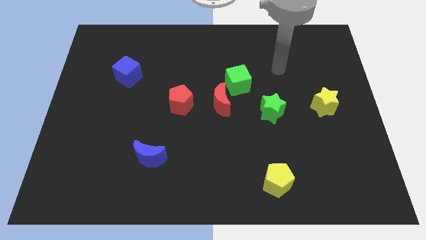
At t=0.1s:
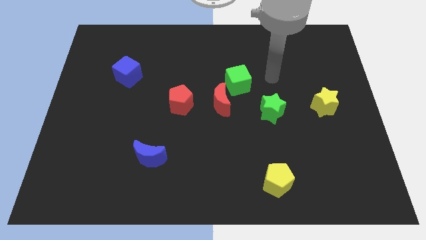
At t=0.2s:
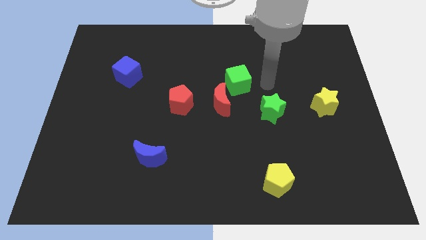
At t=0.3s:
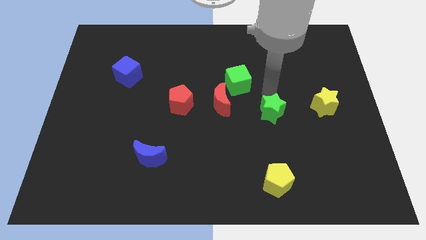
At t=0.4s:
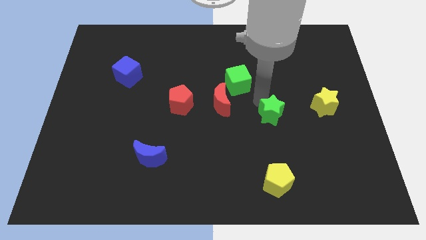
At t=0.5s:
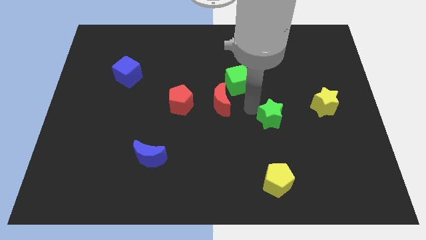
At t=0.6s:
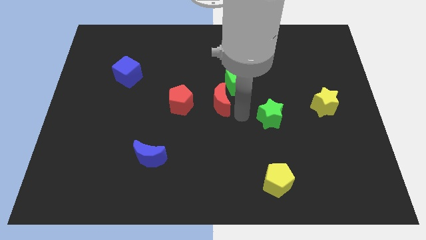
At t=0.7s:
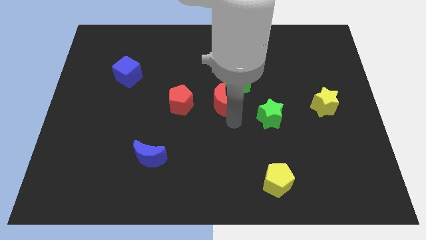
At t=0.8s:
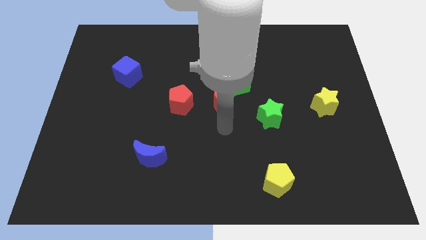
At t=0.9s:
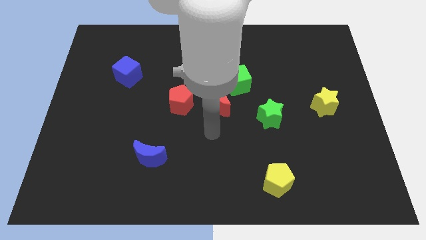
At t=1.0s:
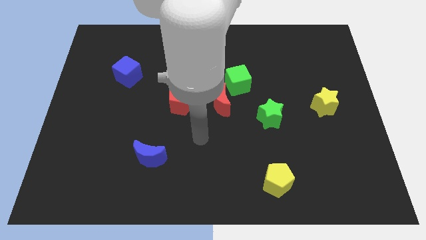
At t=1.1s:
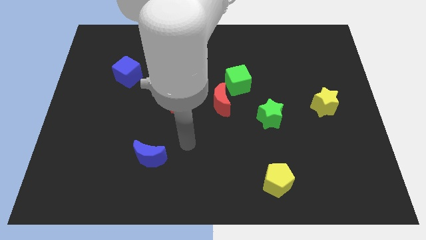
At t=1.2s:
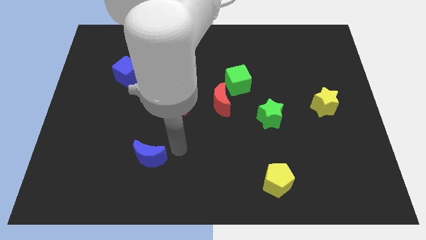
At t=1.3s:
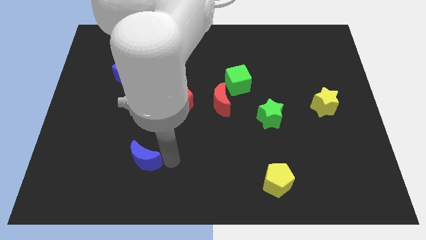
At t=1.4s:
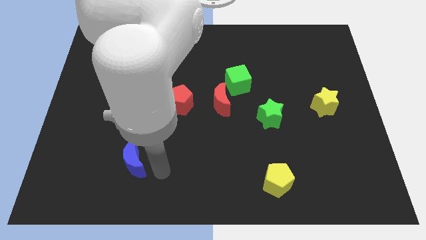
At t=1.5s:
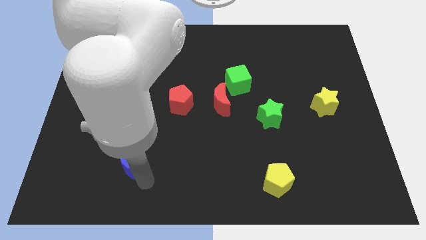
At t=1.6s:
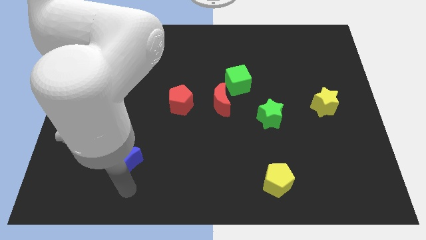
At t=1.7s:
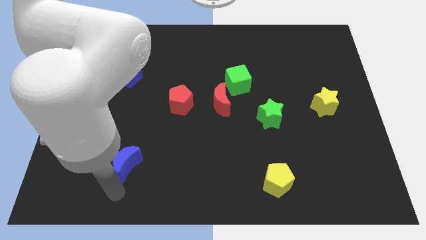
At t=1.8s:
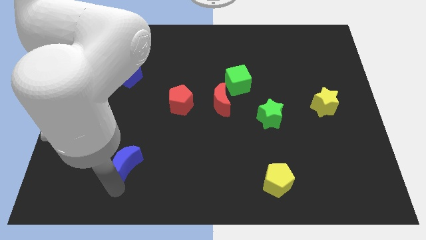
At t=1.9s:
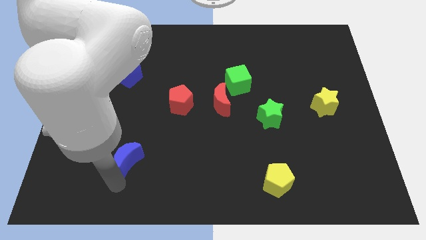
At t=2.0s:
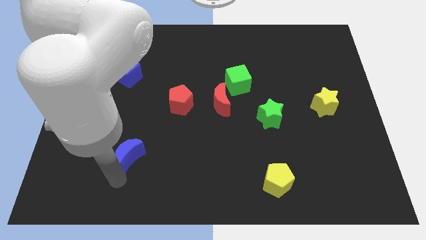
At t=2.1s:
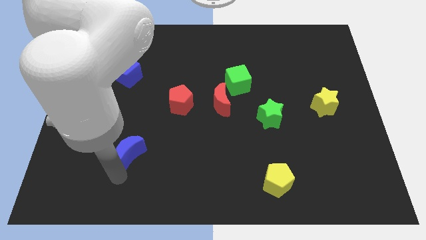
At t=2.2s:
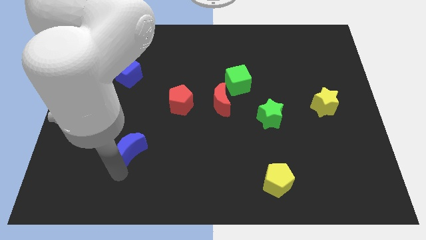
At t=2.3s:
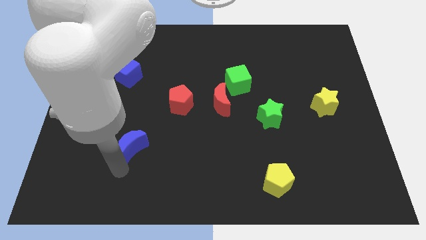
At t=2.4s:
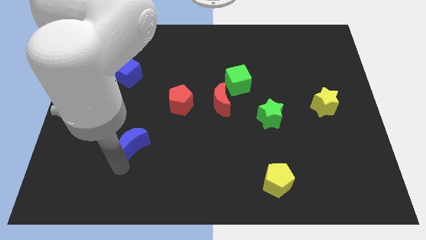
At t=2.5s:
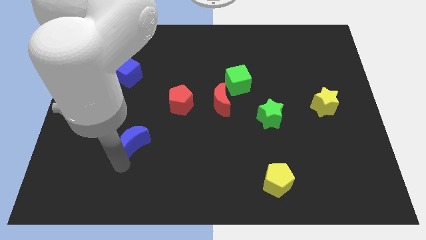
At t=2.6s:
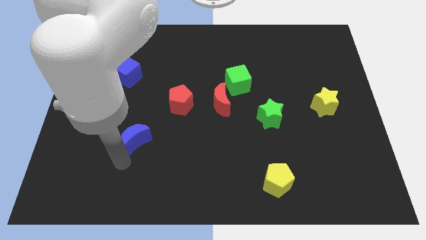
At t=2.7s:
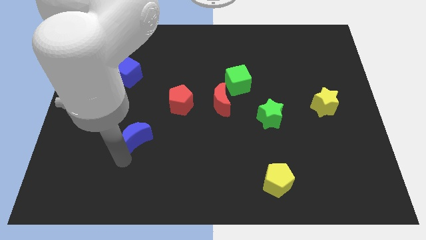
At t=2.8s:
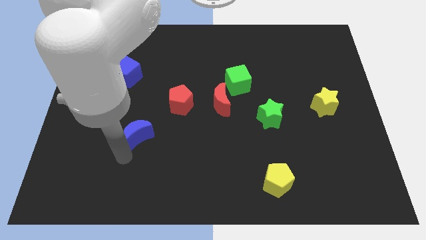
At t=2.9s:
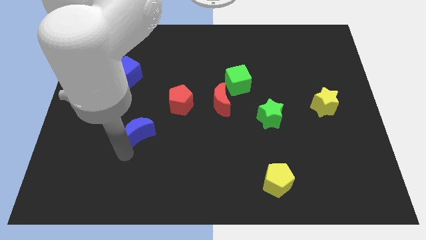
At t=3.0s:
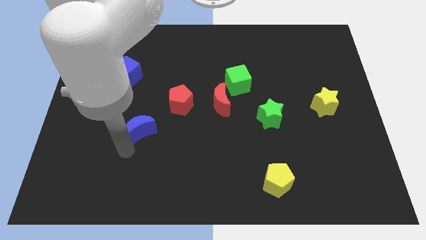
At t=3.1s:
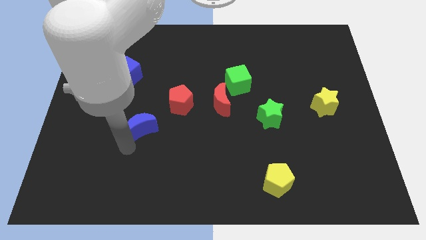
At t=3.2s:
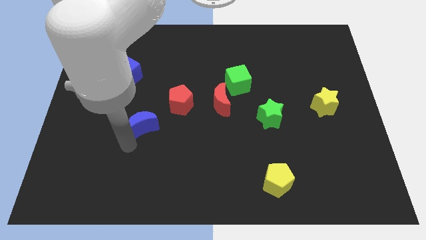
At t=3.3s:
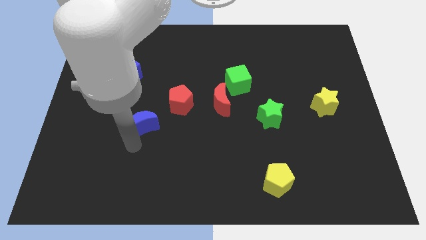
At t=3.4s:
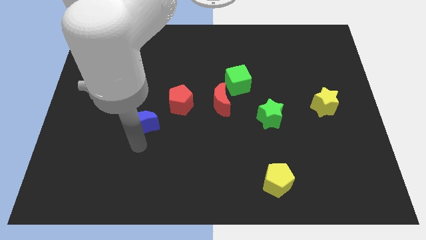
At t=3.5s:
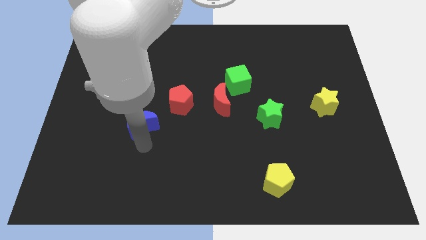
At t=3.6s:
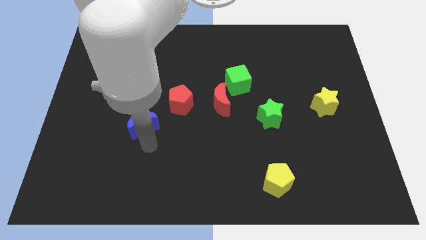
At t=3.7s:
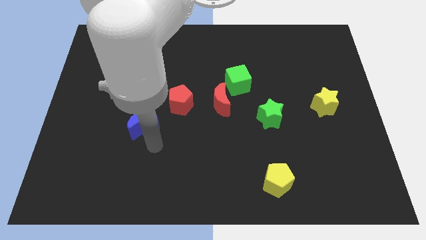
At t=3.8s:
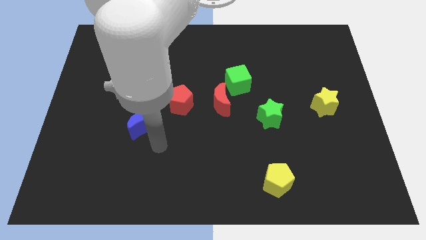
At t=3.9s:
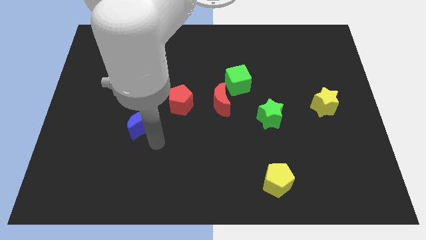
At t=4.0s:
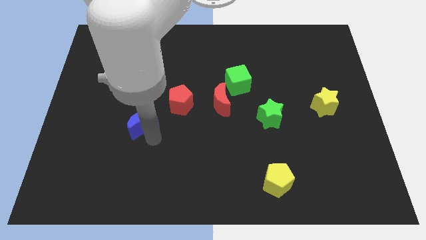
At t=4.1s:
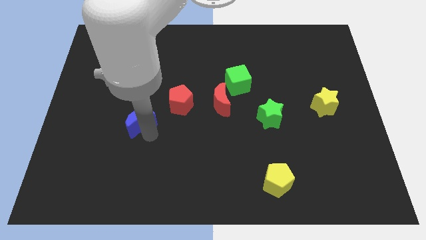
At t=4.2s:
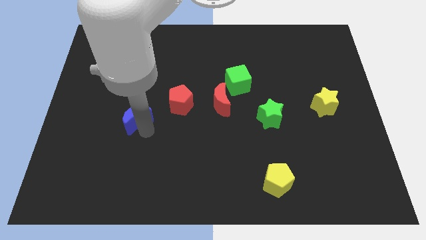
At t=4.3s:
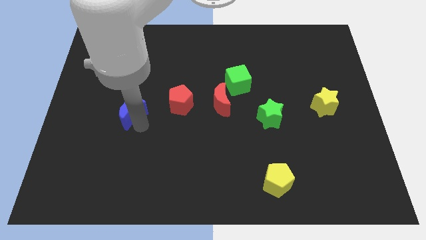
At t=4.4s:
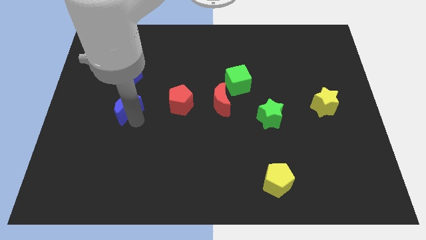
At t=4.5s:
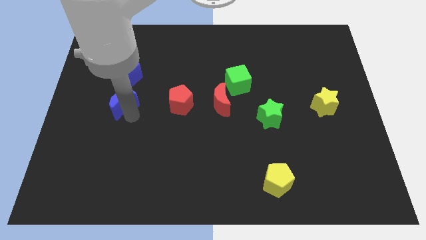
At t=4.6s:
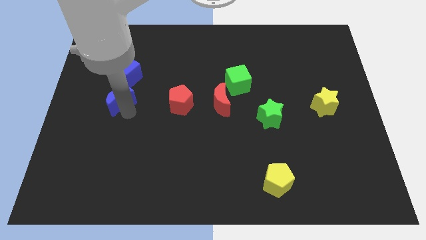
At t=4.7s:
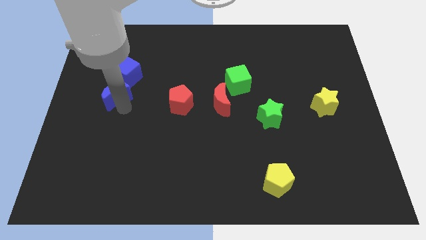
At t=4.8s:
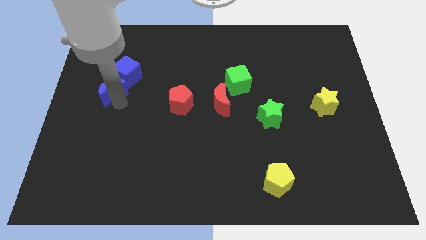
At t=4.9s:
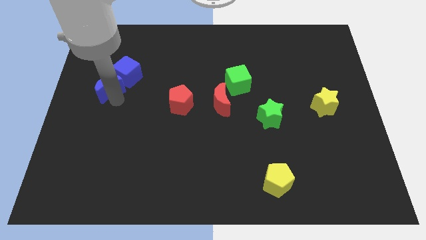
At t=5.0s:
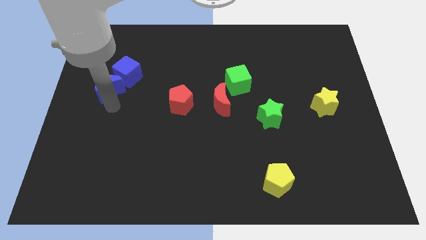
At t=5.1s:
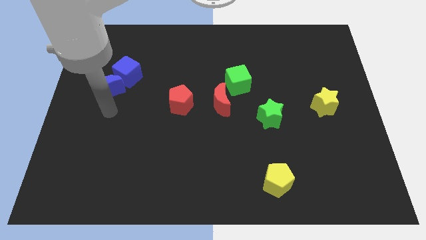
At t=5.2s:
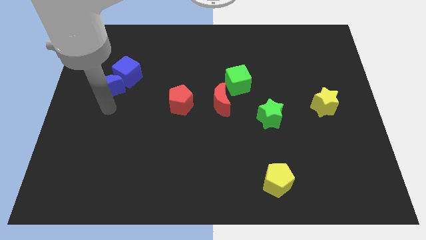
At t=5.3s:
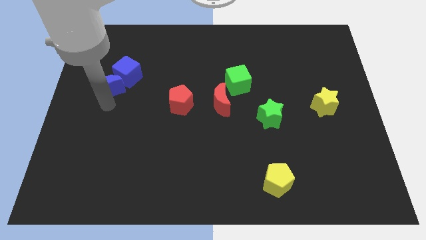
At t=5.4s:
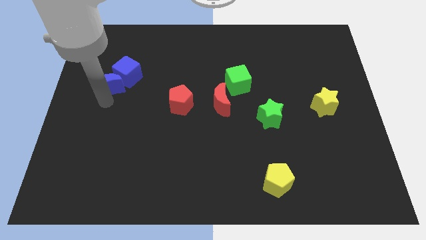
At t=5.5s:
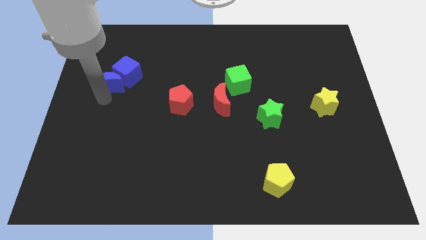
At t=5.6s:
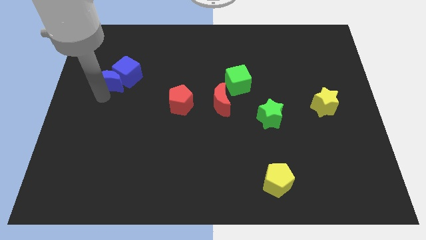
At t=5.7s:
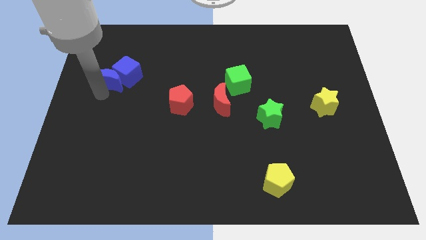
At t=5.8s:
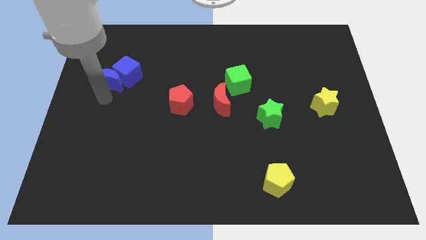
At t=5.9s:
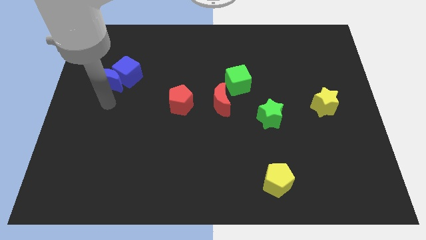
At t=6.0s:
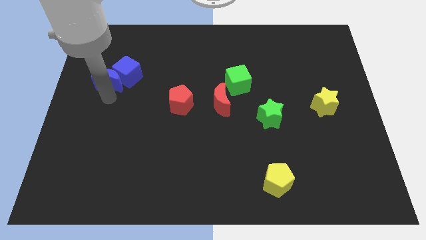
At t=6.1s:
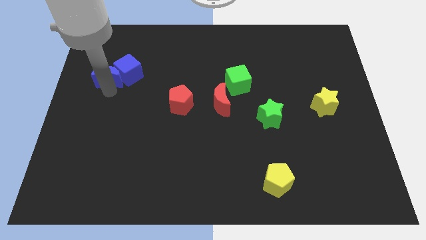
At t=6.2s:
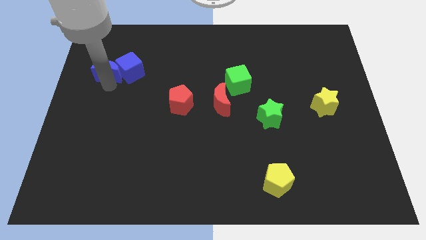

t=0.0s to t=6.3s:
put the blue moon to the top left of the blue cube

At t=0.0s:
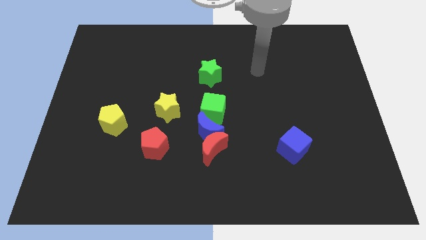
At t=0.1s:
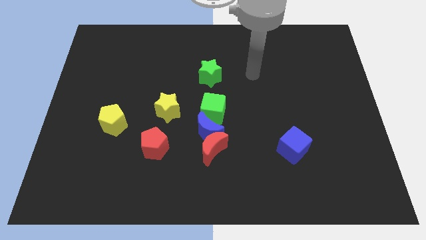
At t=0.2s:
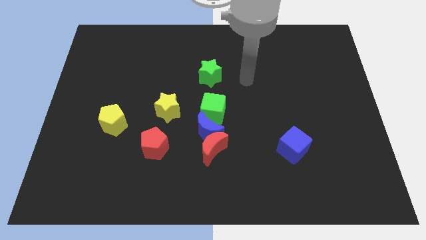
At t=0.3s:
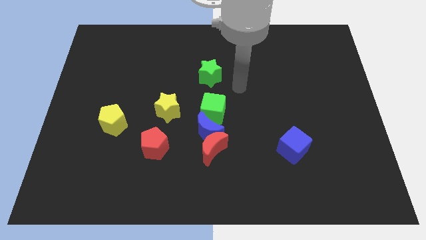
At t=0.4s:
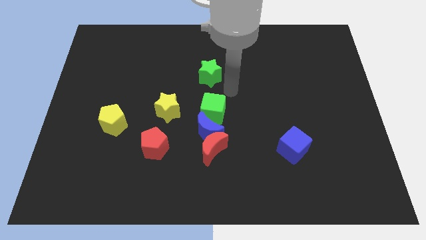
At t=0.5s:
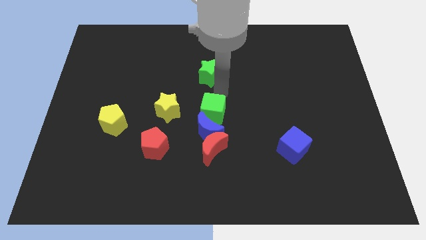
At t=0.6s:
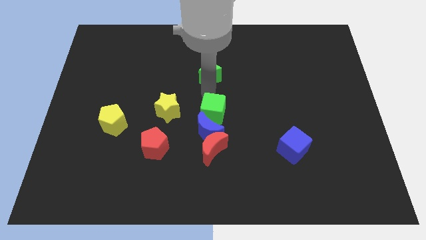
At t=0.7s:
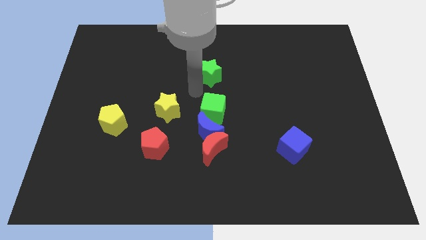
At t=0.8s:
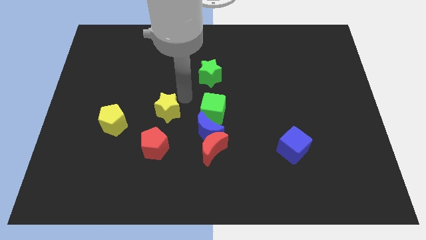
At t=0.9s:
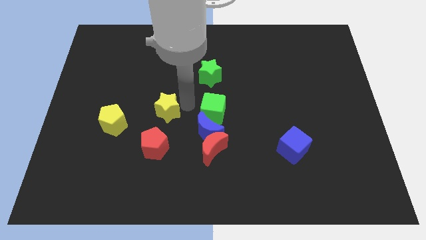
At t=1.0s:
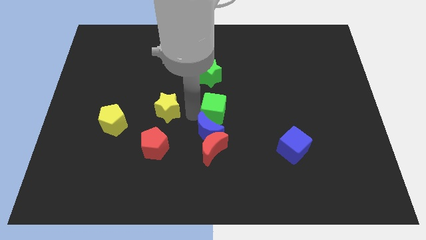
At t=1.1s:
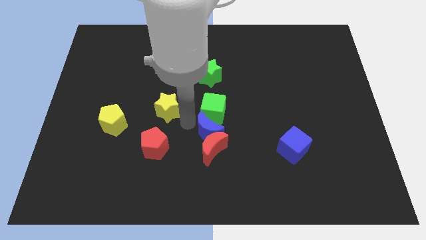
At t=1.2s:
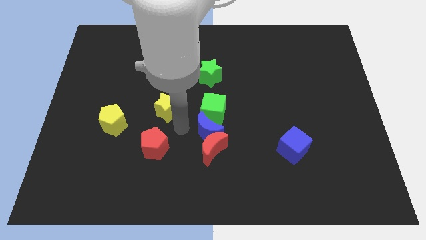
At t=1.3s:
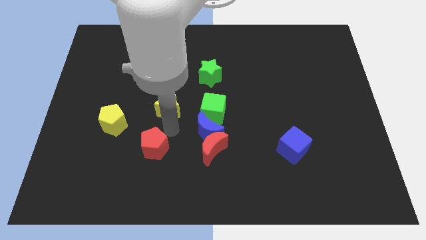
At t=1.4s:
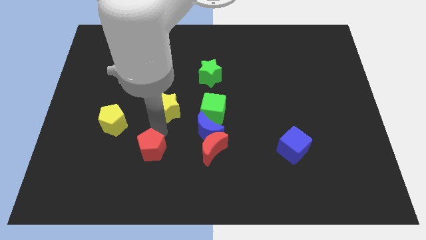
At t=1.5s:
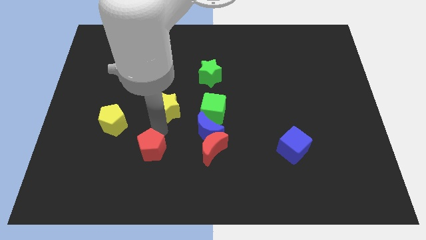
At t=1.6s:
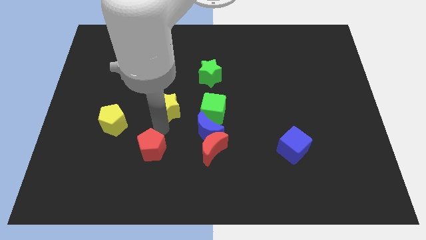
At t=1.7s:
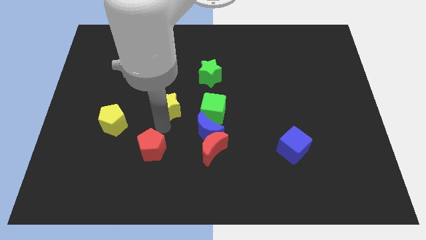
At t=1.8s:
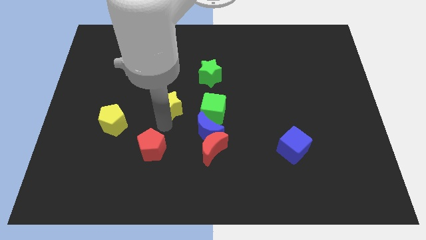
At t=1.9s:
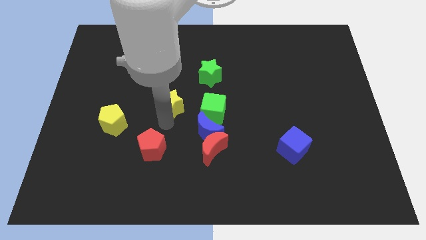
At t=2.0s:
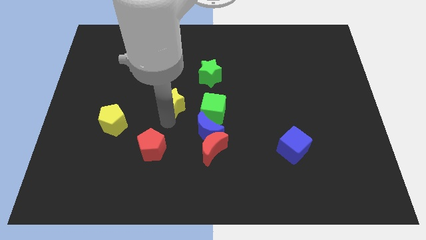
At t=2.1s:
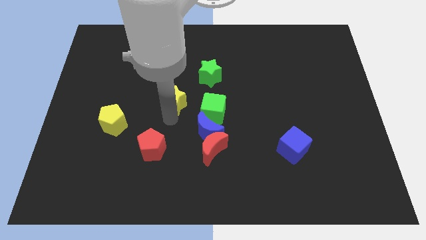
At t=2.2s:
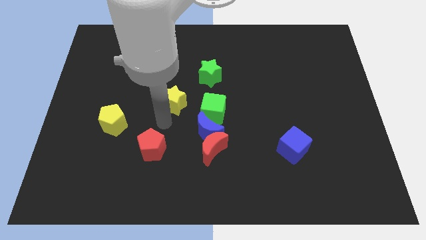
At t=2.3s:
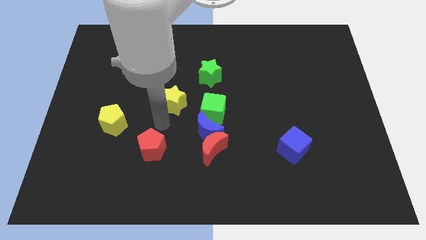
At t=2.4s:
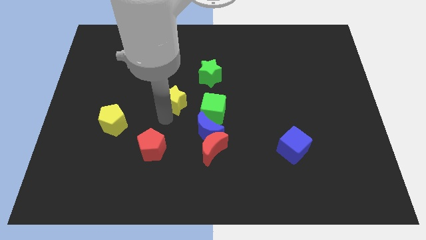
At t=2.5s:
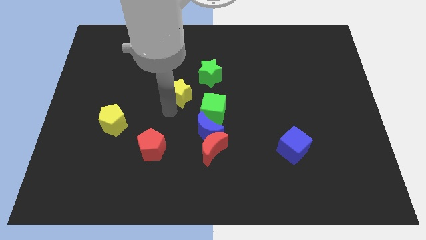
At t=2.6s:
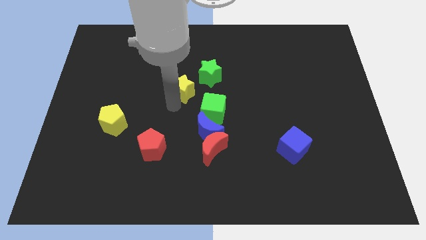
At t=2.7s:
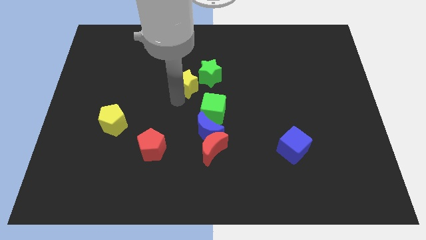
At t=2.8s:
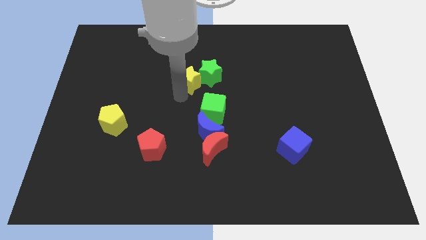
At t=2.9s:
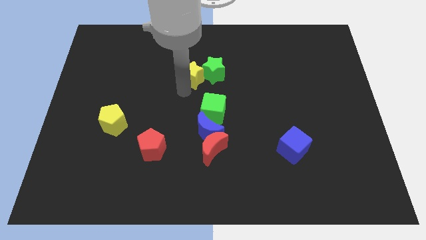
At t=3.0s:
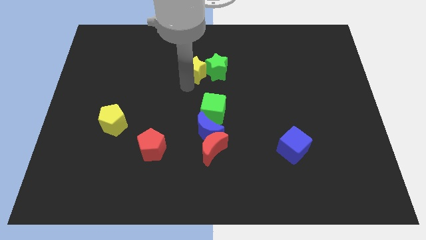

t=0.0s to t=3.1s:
slide the yellow star to the top side of the green cube
